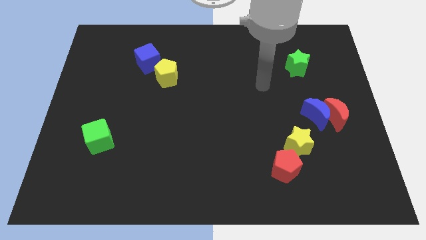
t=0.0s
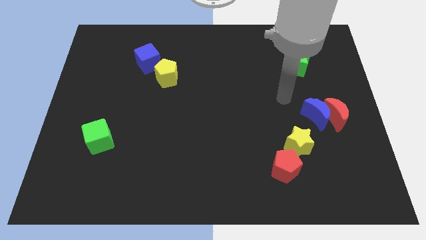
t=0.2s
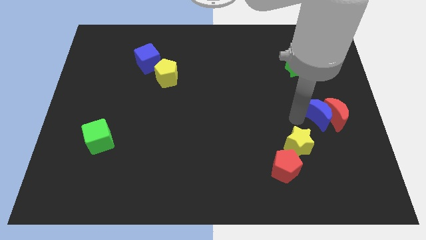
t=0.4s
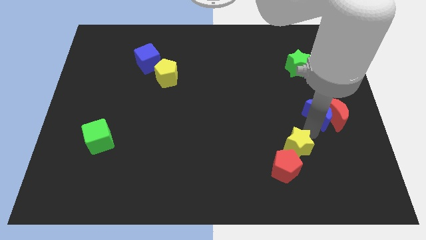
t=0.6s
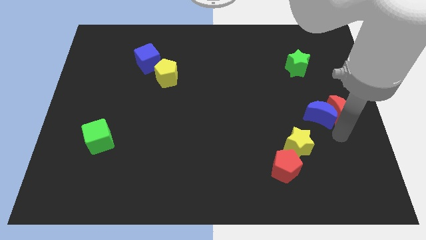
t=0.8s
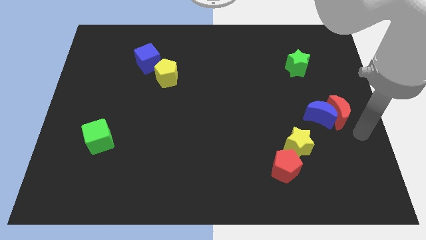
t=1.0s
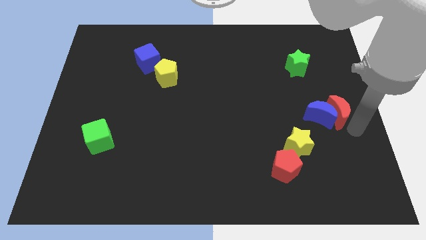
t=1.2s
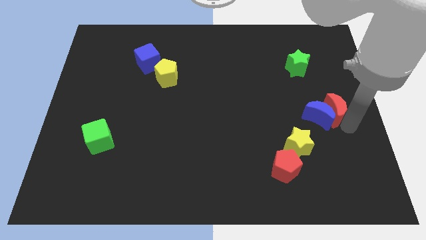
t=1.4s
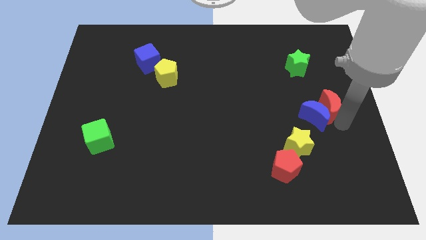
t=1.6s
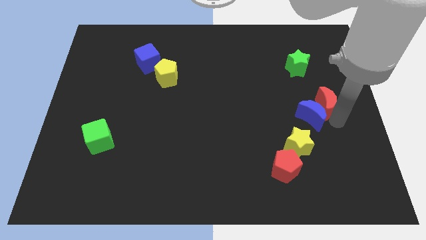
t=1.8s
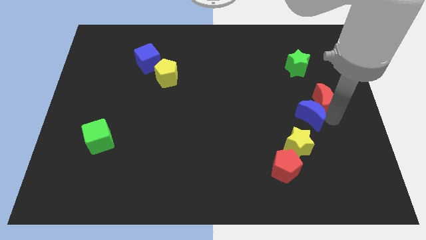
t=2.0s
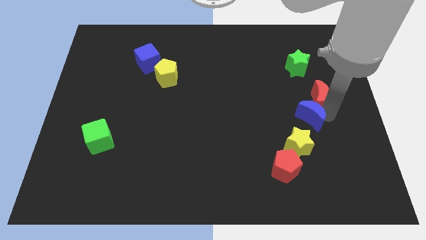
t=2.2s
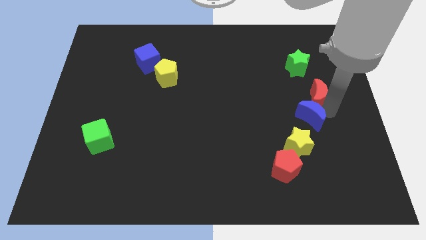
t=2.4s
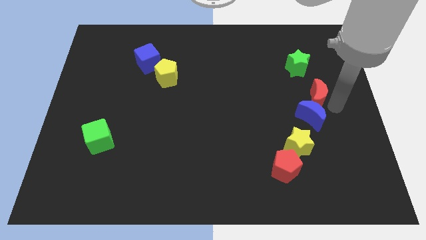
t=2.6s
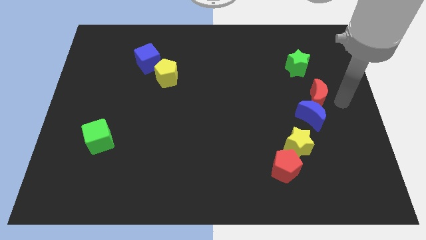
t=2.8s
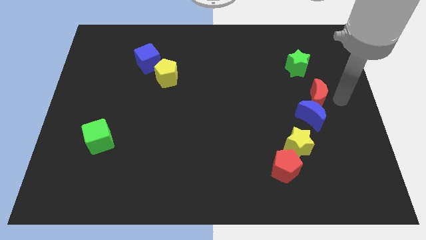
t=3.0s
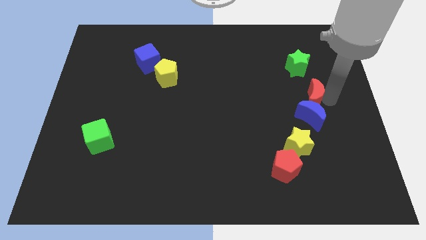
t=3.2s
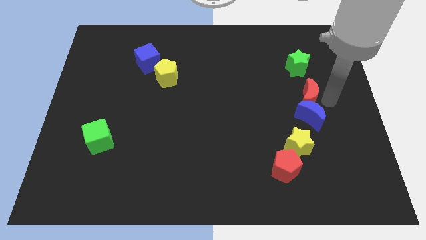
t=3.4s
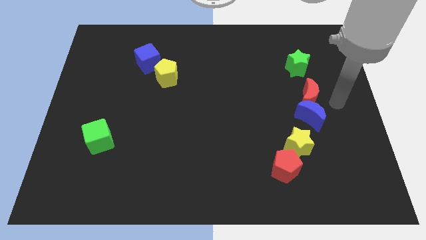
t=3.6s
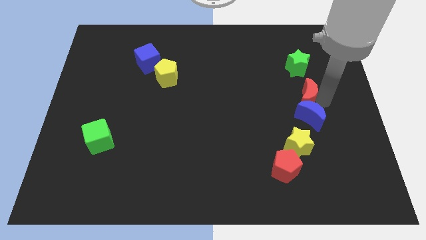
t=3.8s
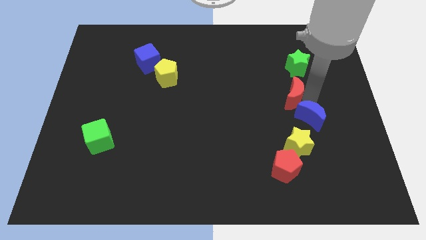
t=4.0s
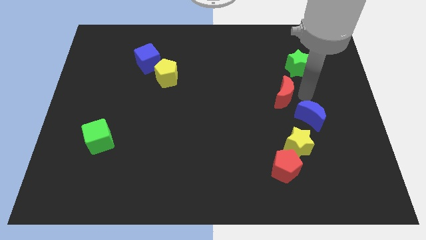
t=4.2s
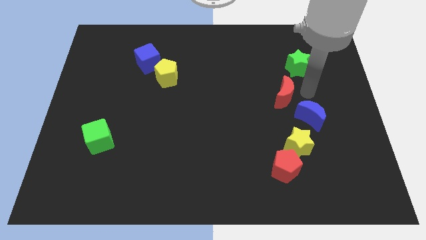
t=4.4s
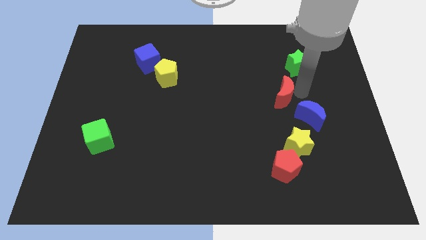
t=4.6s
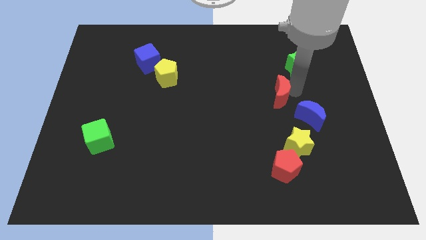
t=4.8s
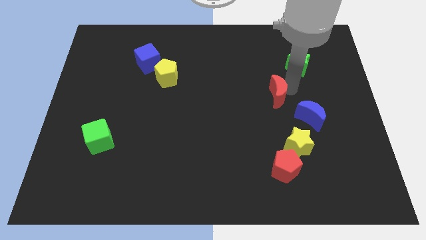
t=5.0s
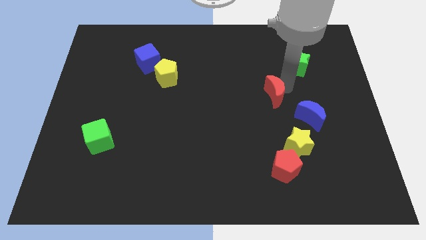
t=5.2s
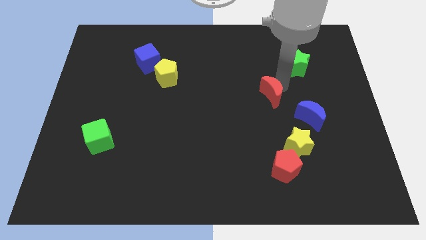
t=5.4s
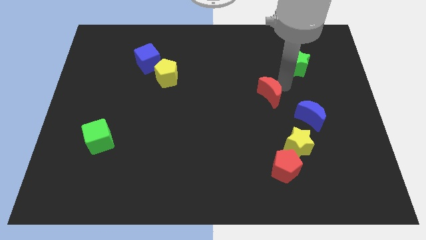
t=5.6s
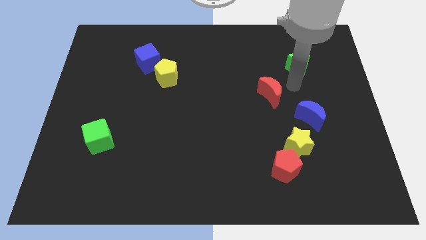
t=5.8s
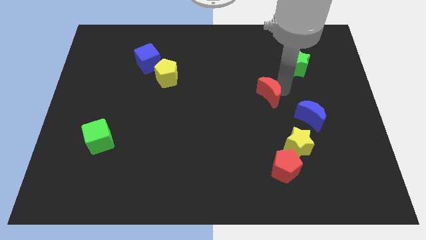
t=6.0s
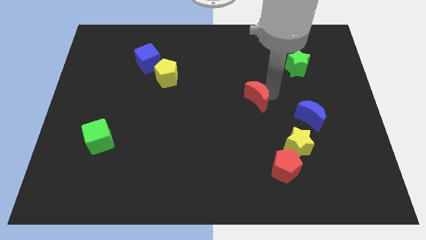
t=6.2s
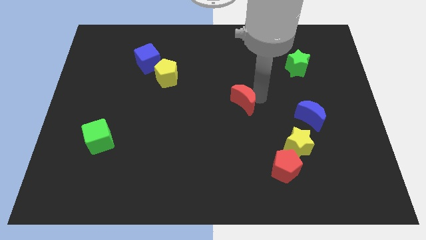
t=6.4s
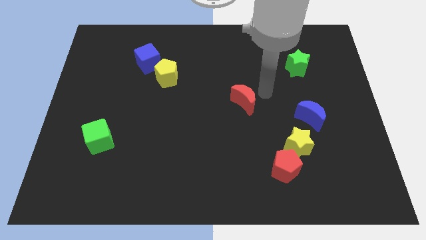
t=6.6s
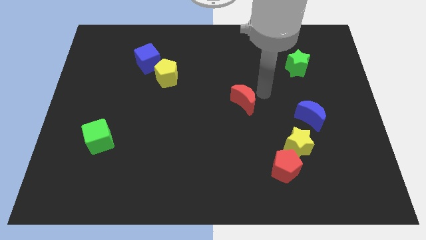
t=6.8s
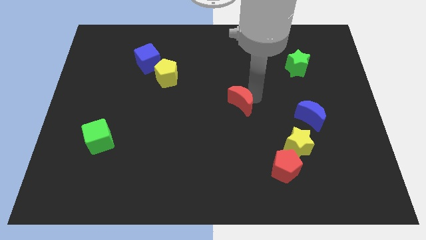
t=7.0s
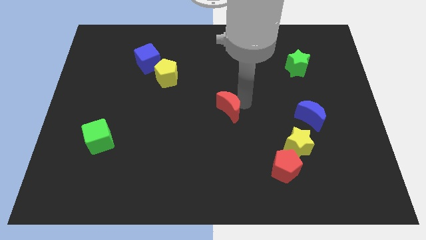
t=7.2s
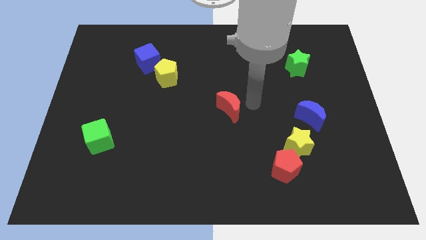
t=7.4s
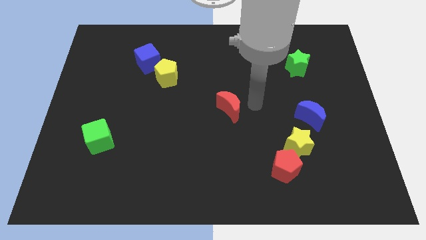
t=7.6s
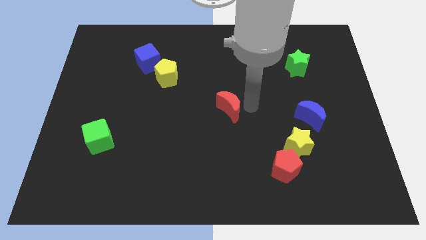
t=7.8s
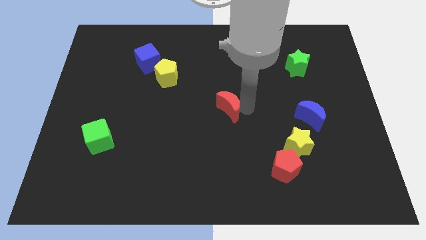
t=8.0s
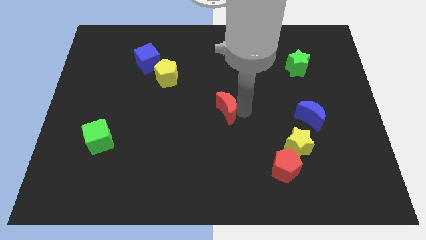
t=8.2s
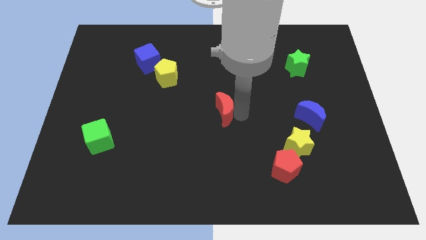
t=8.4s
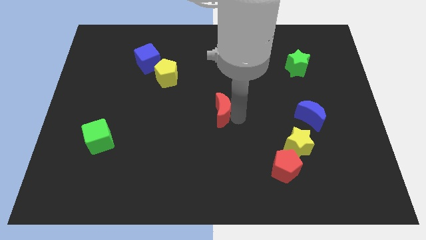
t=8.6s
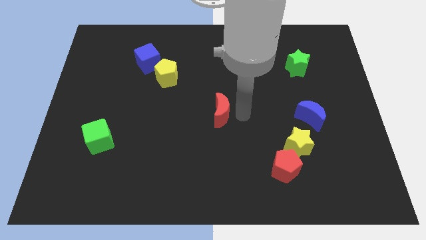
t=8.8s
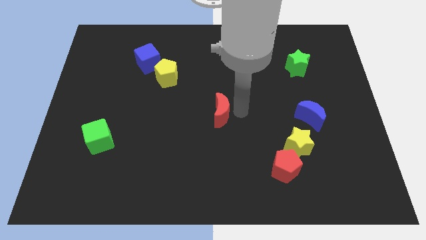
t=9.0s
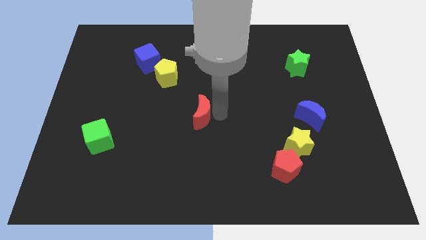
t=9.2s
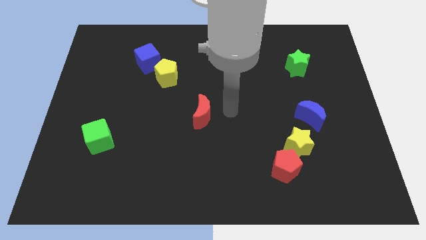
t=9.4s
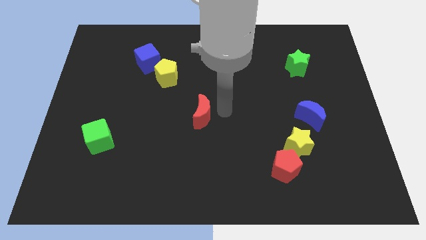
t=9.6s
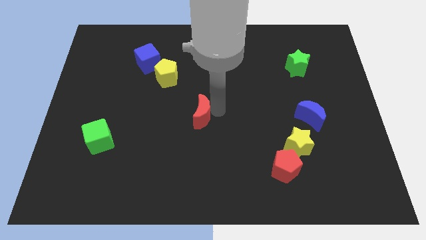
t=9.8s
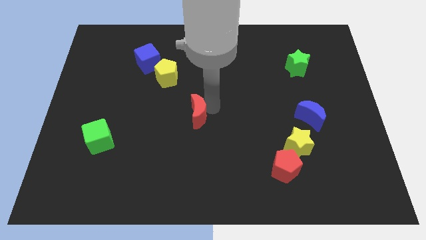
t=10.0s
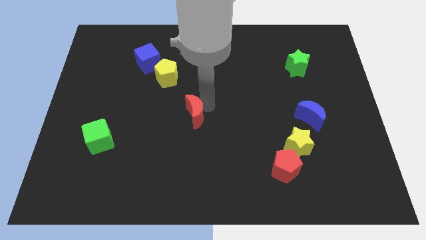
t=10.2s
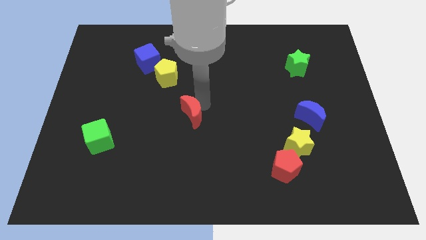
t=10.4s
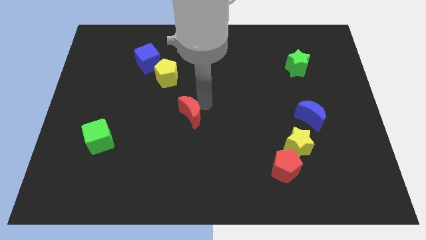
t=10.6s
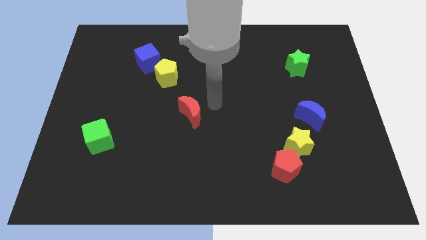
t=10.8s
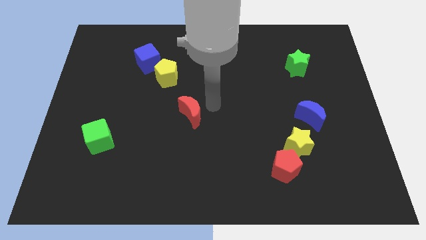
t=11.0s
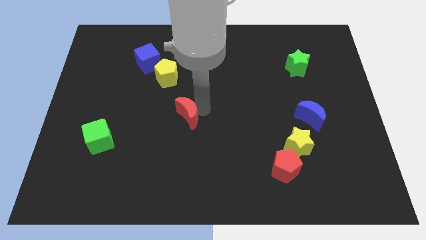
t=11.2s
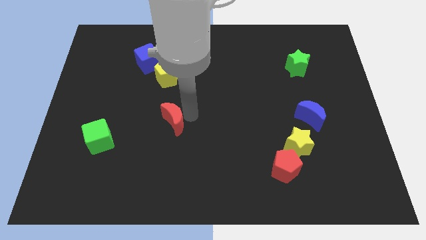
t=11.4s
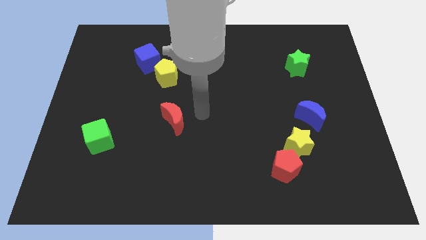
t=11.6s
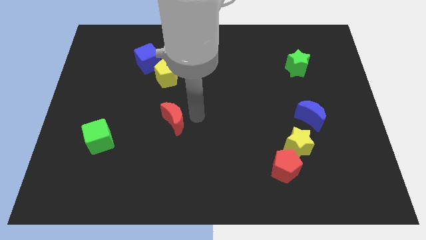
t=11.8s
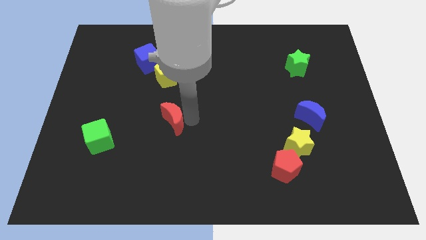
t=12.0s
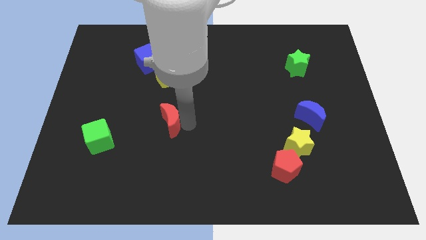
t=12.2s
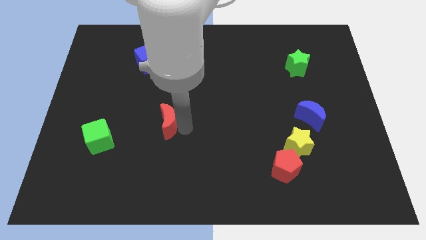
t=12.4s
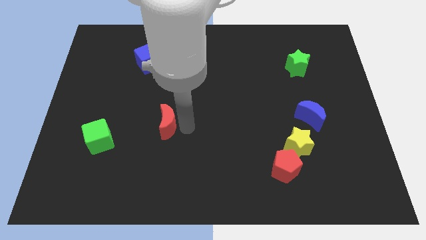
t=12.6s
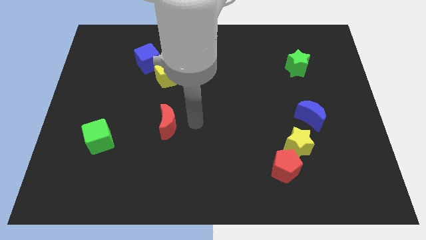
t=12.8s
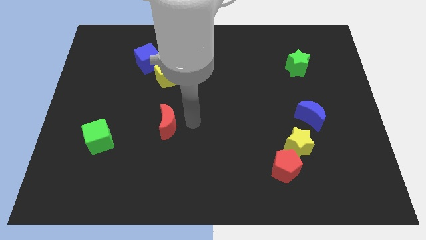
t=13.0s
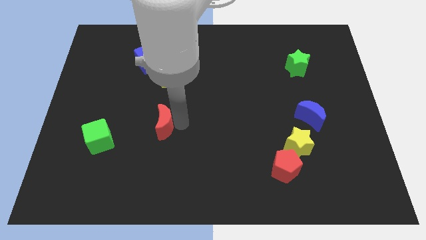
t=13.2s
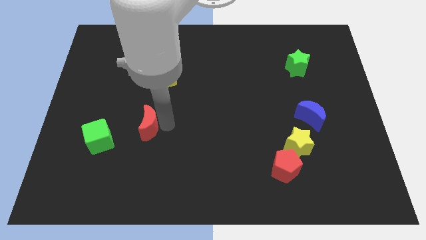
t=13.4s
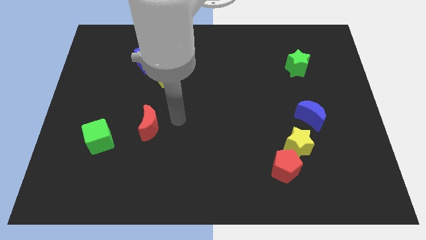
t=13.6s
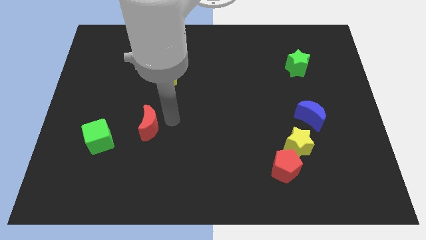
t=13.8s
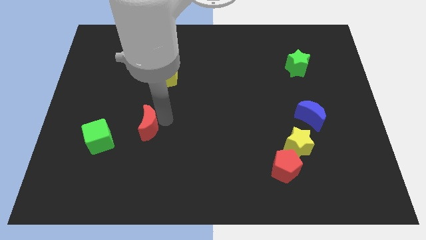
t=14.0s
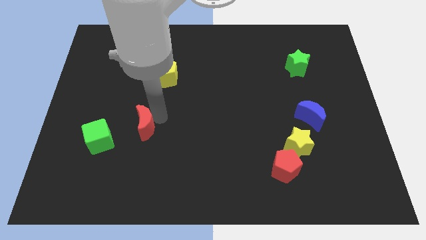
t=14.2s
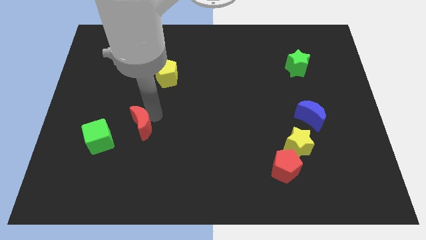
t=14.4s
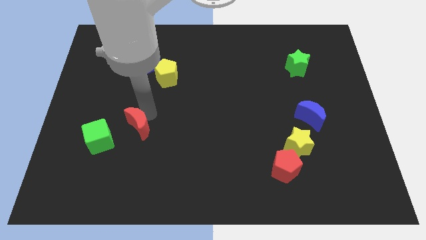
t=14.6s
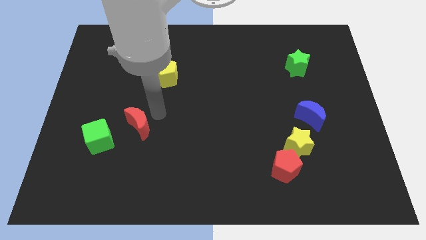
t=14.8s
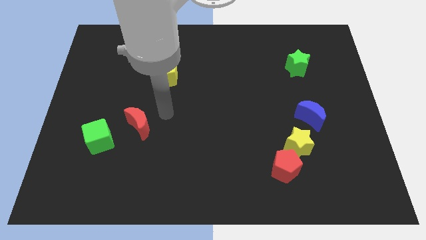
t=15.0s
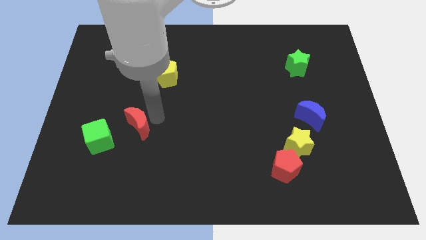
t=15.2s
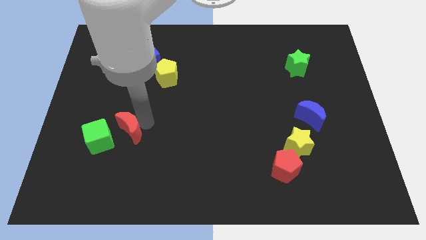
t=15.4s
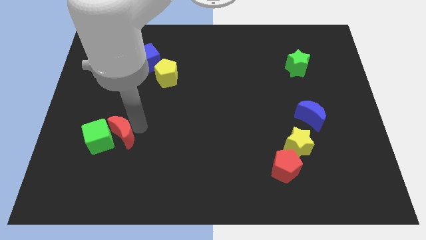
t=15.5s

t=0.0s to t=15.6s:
move the red moon to the green cube
